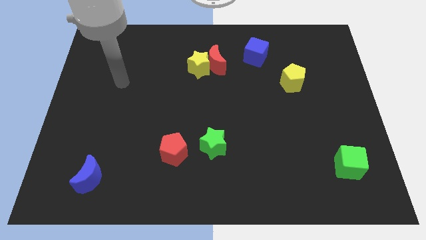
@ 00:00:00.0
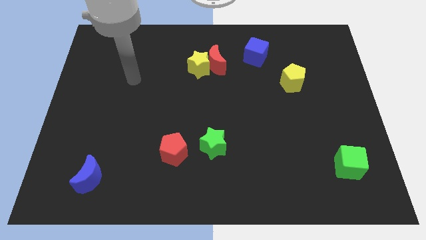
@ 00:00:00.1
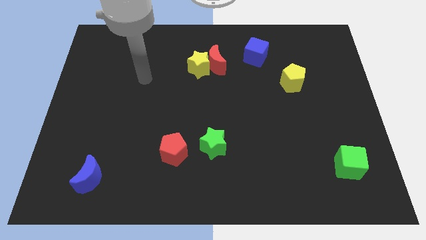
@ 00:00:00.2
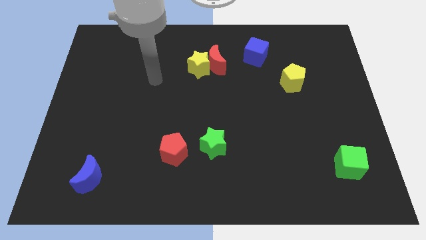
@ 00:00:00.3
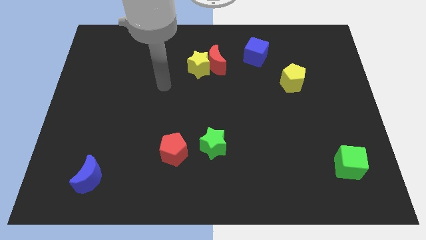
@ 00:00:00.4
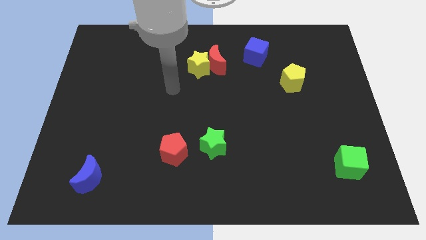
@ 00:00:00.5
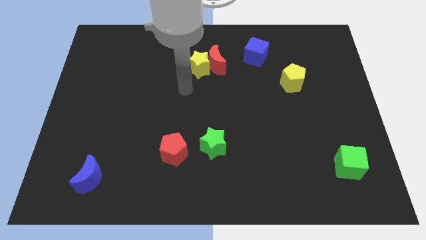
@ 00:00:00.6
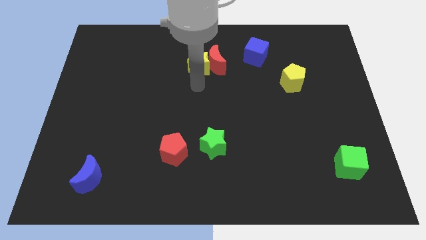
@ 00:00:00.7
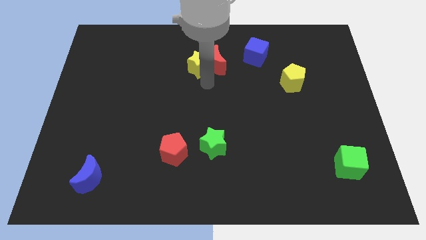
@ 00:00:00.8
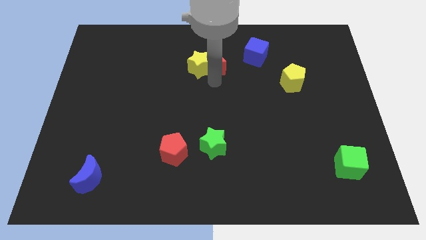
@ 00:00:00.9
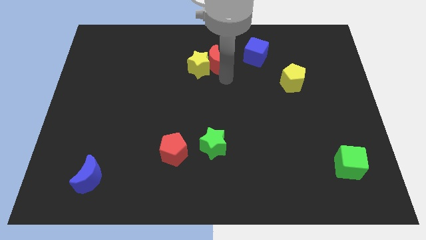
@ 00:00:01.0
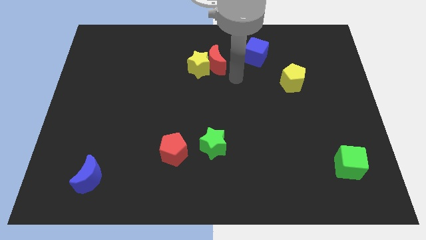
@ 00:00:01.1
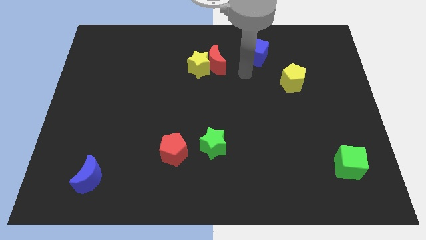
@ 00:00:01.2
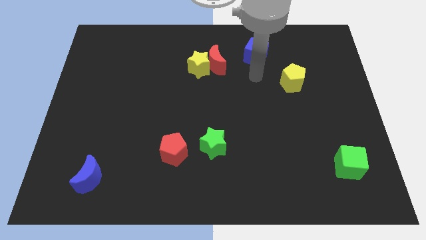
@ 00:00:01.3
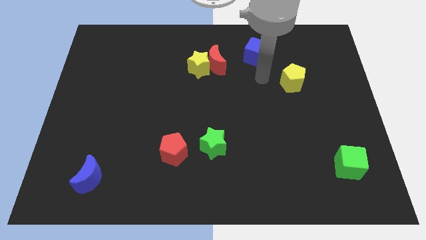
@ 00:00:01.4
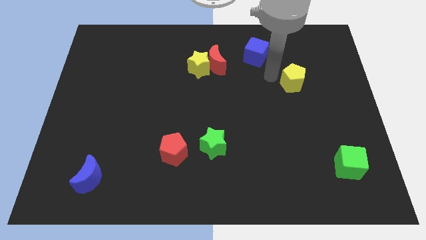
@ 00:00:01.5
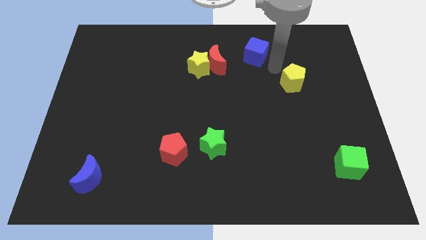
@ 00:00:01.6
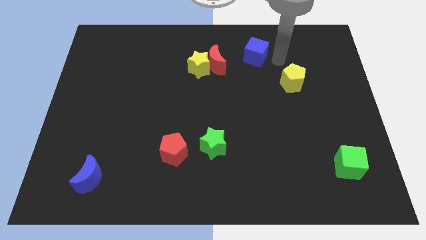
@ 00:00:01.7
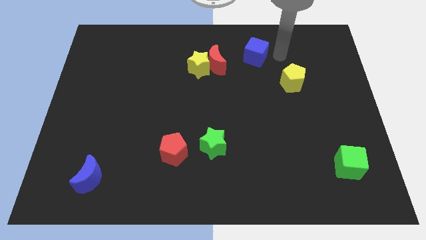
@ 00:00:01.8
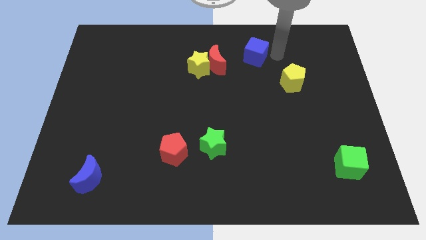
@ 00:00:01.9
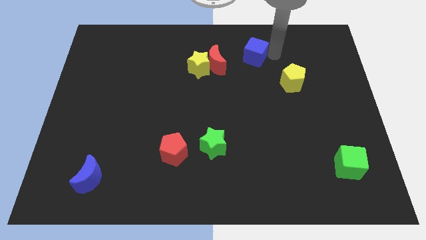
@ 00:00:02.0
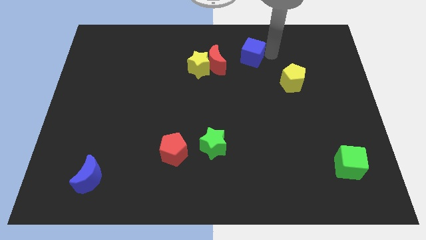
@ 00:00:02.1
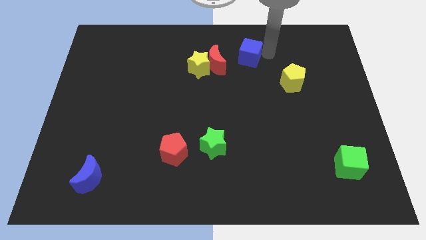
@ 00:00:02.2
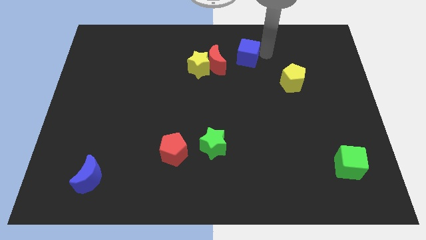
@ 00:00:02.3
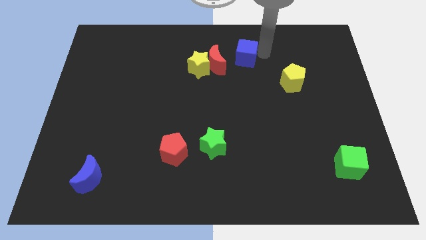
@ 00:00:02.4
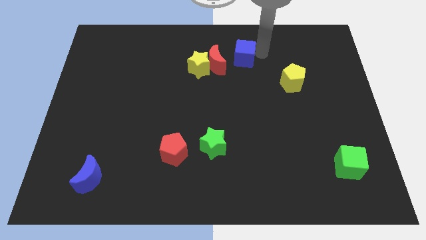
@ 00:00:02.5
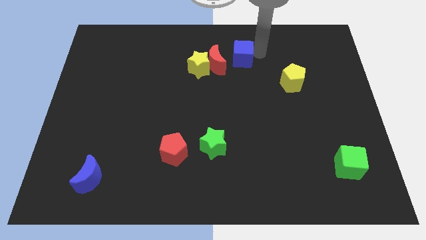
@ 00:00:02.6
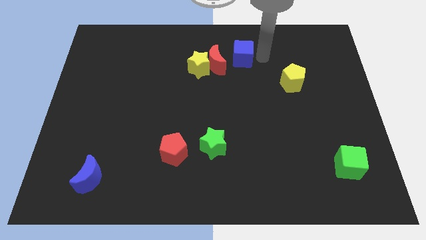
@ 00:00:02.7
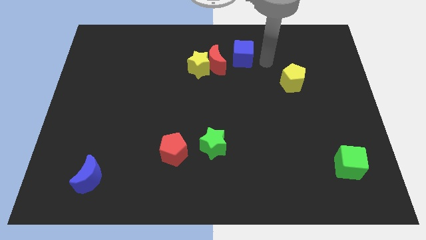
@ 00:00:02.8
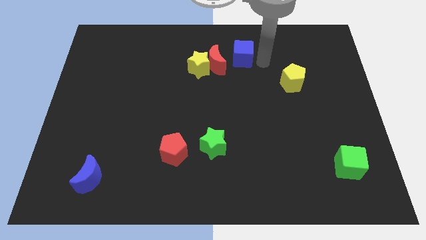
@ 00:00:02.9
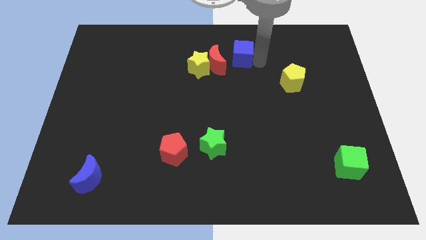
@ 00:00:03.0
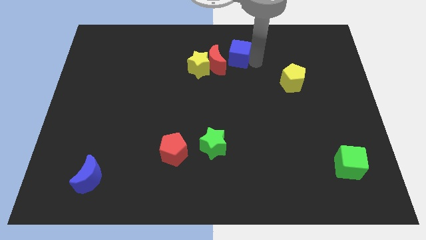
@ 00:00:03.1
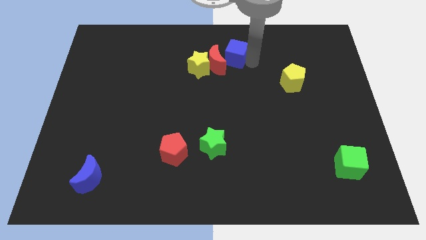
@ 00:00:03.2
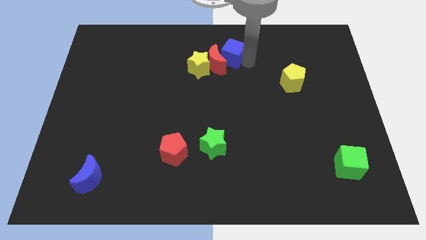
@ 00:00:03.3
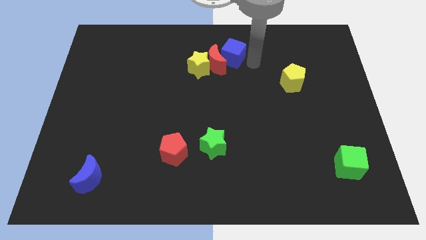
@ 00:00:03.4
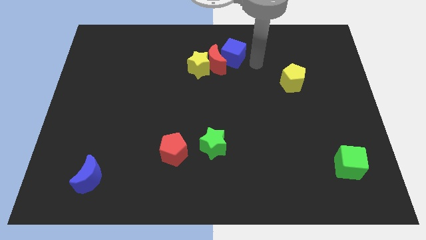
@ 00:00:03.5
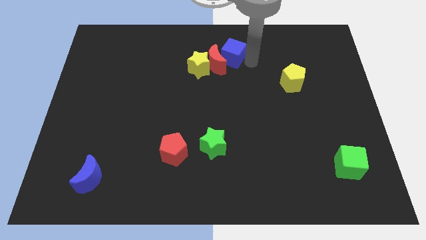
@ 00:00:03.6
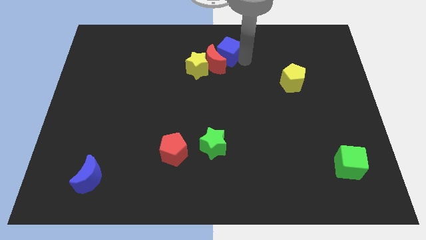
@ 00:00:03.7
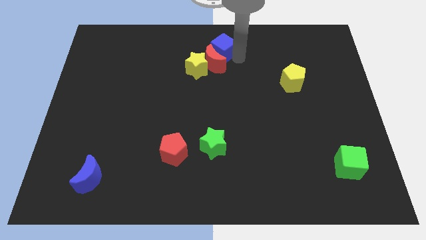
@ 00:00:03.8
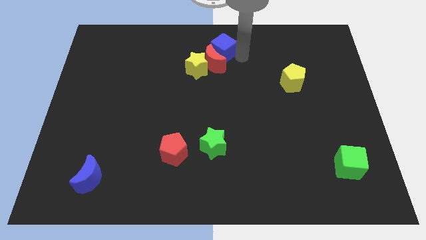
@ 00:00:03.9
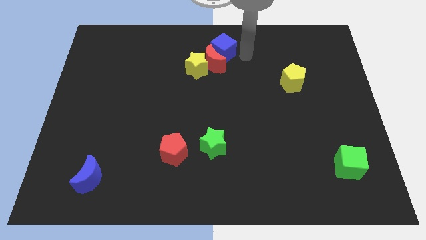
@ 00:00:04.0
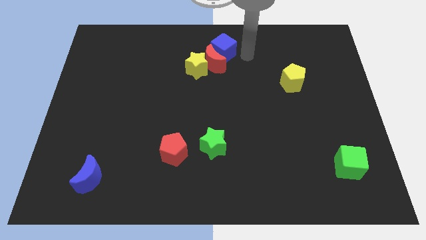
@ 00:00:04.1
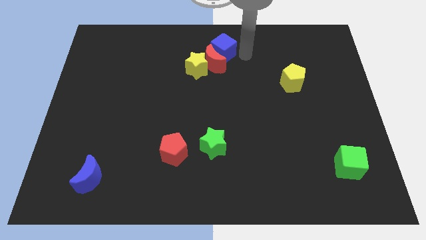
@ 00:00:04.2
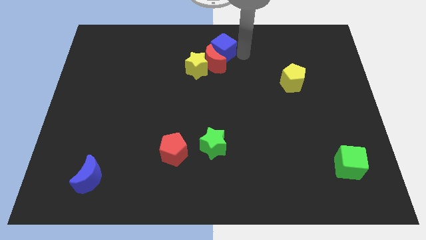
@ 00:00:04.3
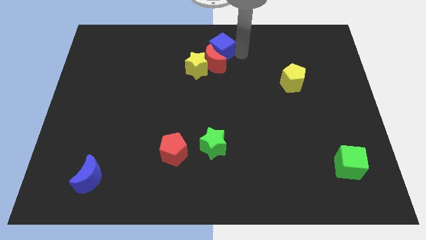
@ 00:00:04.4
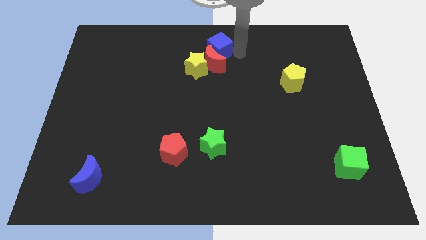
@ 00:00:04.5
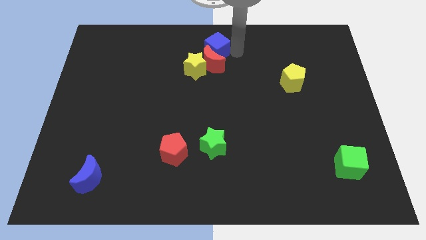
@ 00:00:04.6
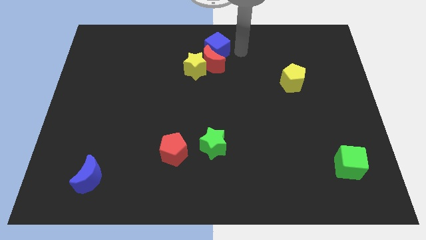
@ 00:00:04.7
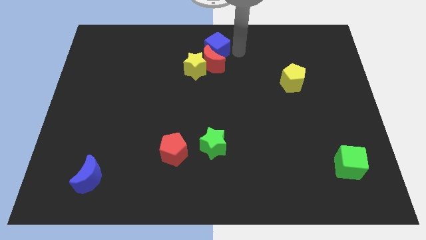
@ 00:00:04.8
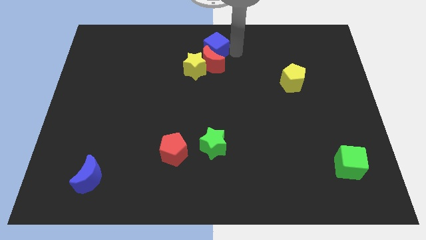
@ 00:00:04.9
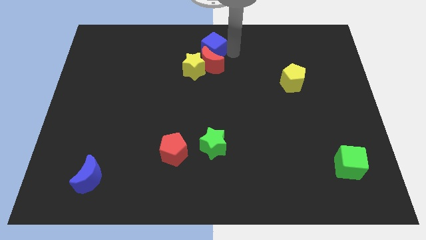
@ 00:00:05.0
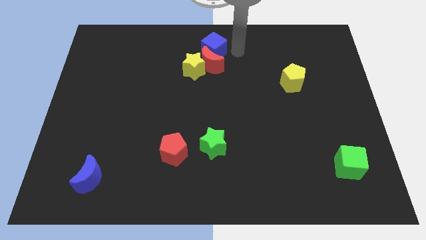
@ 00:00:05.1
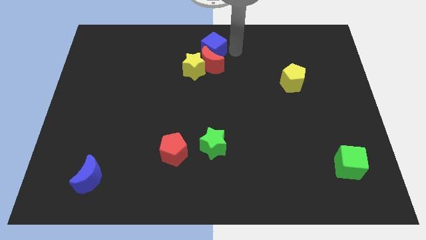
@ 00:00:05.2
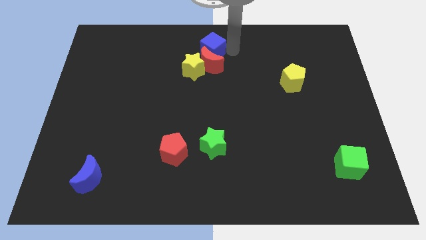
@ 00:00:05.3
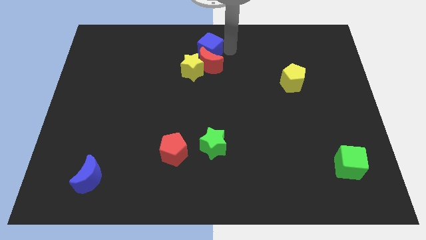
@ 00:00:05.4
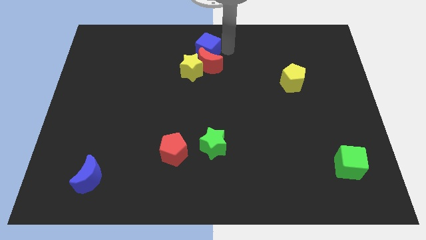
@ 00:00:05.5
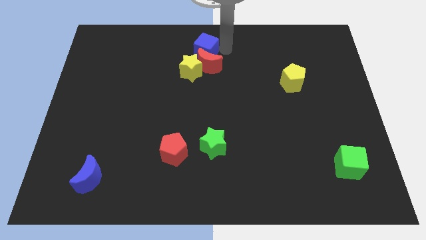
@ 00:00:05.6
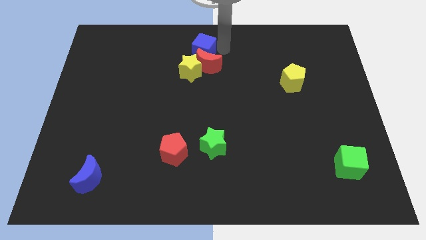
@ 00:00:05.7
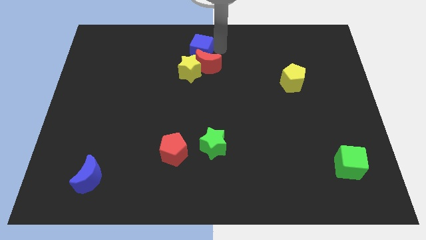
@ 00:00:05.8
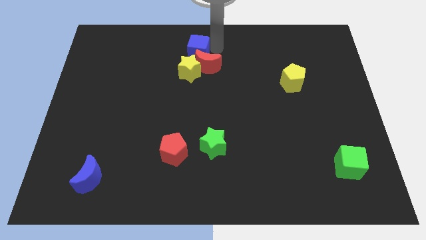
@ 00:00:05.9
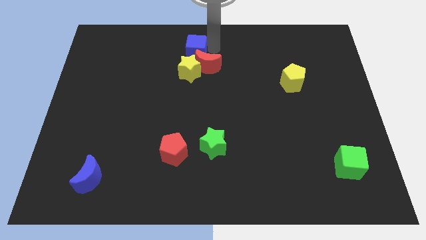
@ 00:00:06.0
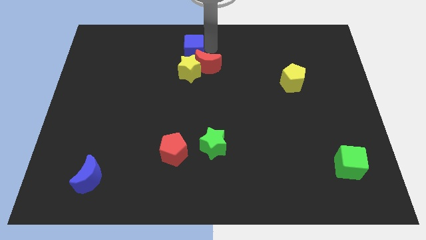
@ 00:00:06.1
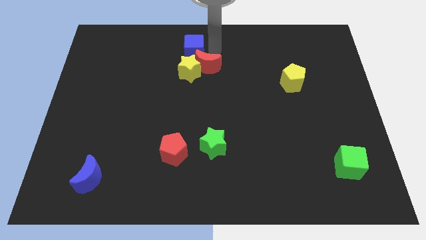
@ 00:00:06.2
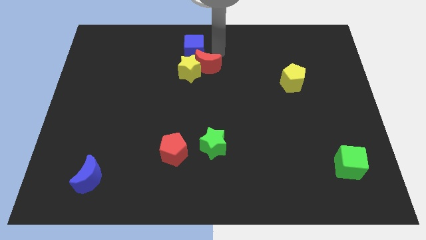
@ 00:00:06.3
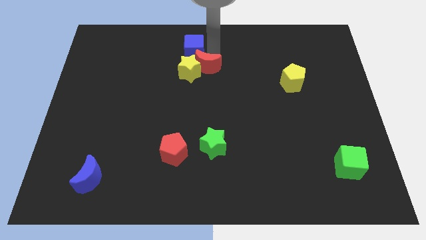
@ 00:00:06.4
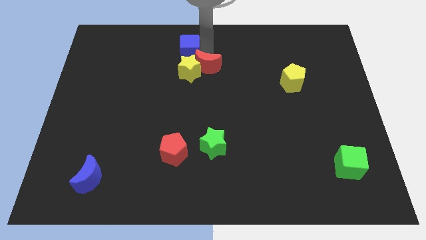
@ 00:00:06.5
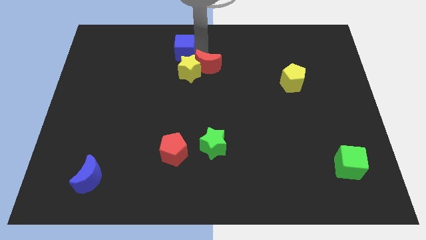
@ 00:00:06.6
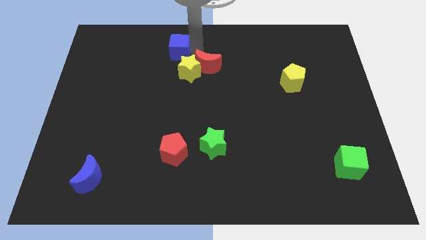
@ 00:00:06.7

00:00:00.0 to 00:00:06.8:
push the blue cube to the left

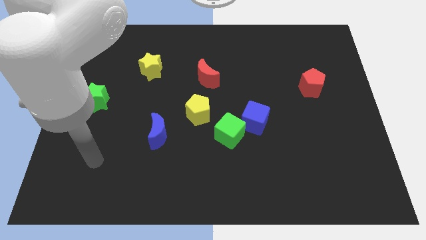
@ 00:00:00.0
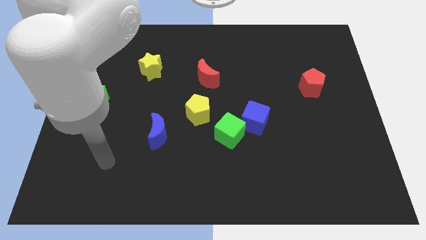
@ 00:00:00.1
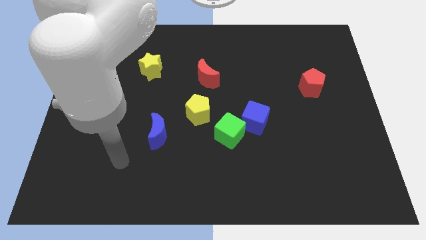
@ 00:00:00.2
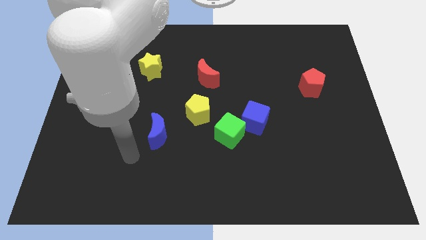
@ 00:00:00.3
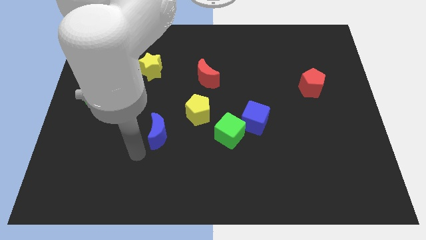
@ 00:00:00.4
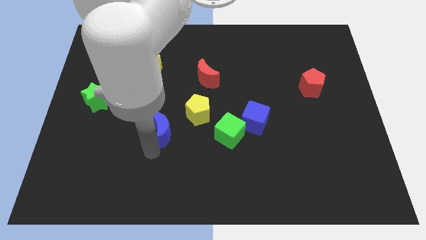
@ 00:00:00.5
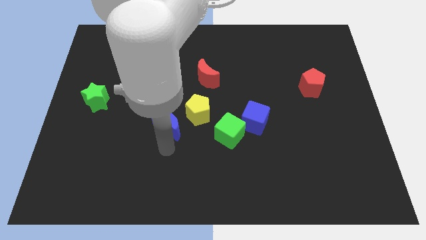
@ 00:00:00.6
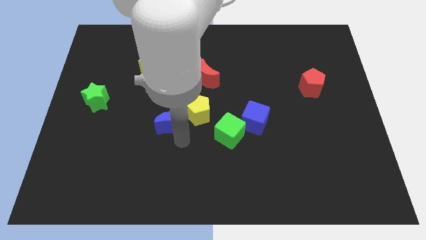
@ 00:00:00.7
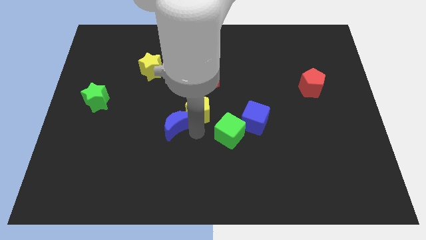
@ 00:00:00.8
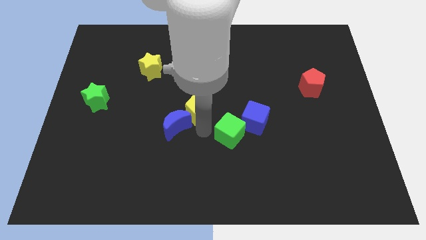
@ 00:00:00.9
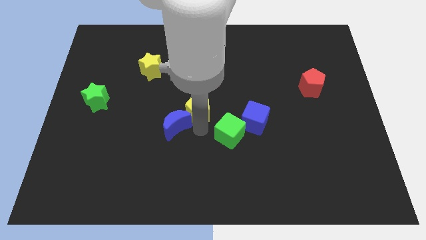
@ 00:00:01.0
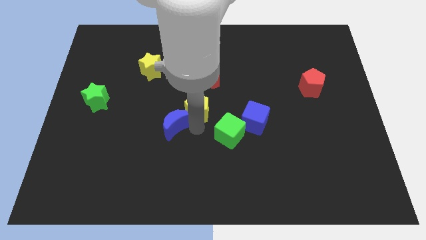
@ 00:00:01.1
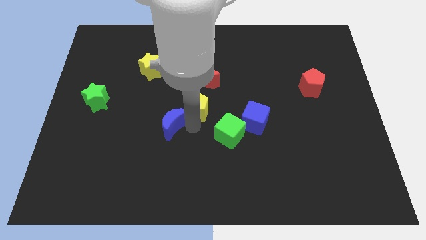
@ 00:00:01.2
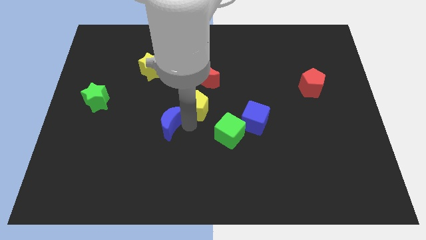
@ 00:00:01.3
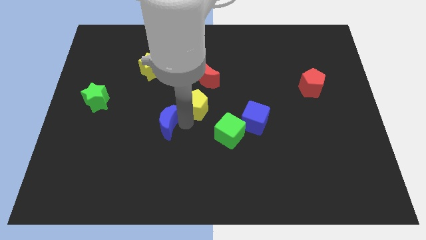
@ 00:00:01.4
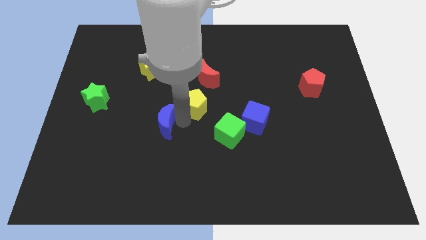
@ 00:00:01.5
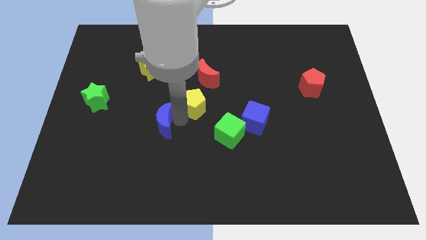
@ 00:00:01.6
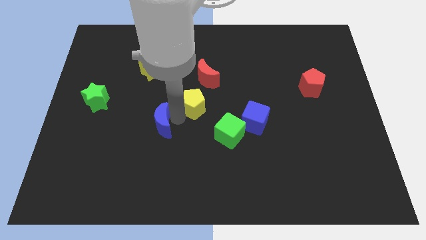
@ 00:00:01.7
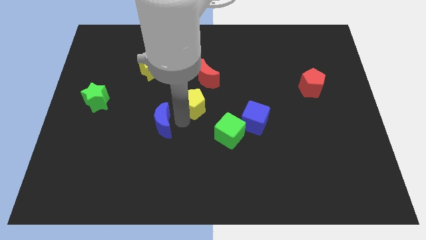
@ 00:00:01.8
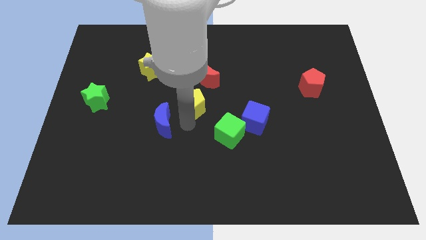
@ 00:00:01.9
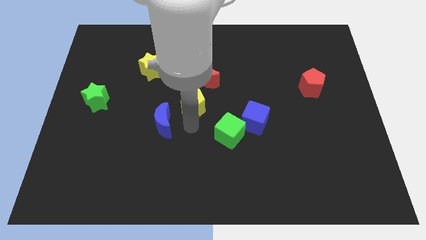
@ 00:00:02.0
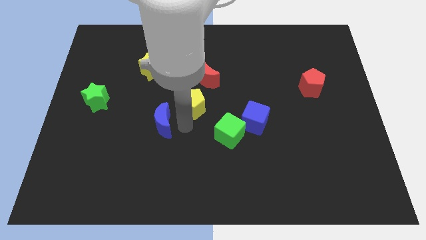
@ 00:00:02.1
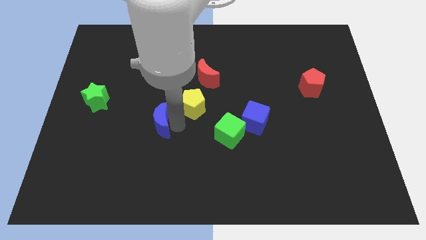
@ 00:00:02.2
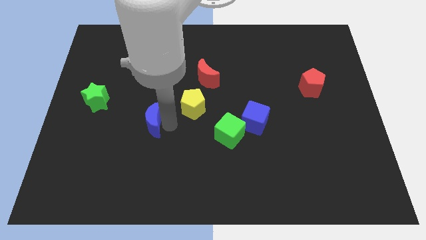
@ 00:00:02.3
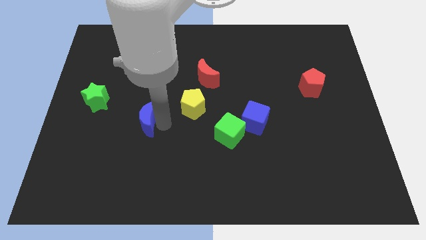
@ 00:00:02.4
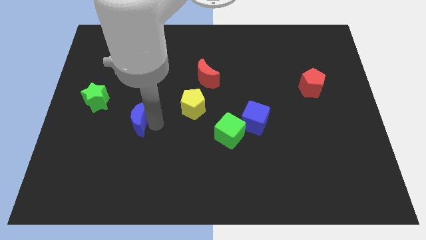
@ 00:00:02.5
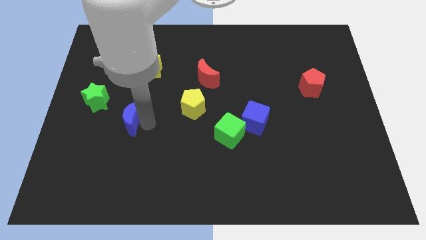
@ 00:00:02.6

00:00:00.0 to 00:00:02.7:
slightly push the blue moon up and left diagonally
